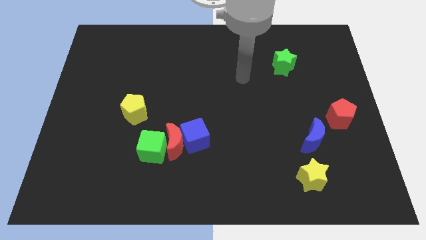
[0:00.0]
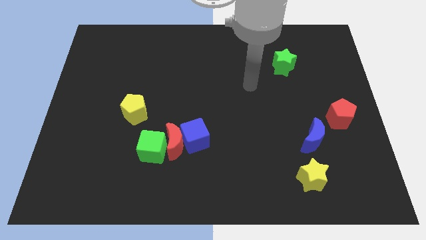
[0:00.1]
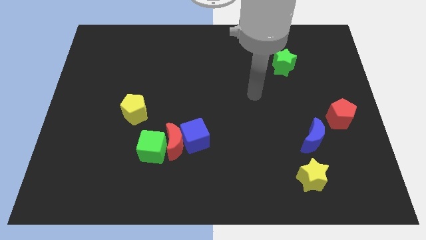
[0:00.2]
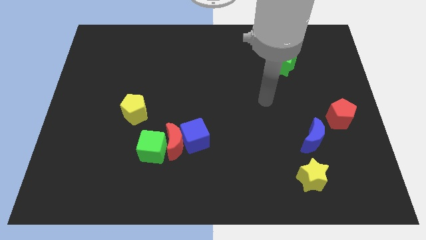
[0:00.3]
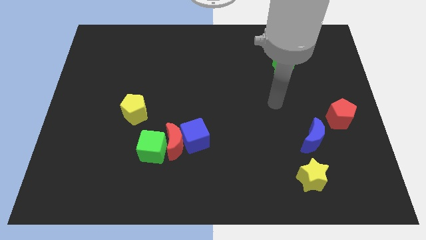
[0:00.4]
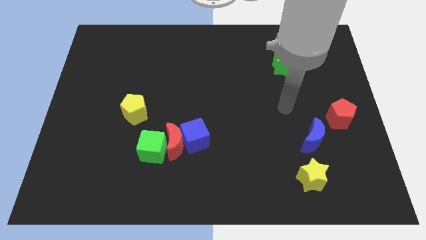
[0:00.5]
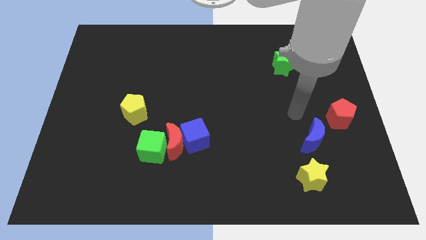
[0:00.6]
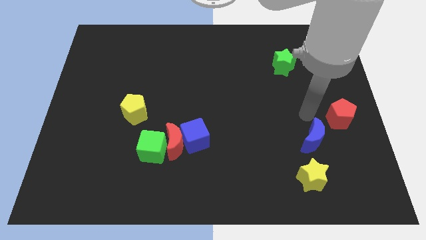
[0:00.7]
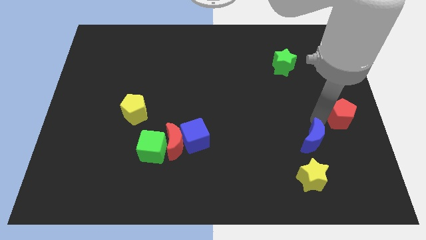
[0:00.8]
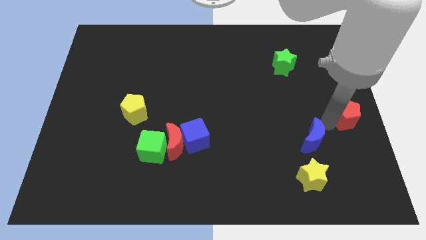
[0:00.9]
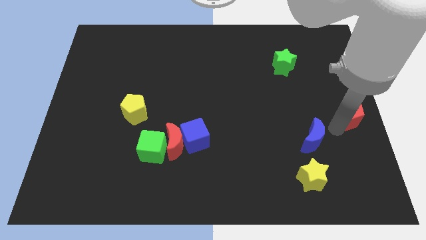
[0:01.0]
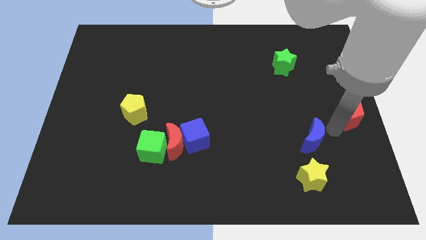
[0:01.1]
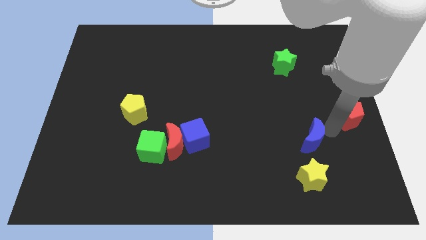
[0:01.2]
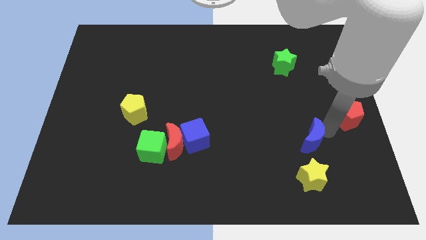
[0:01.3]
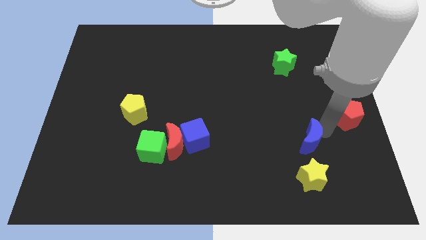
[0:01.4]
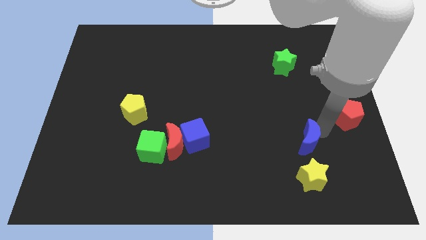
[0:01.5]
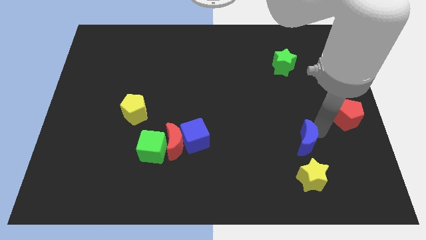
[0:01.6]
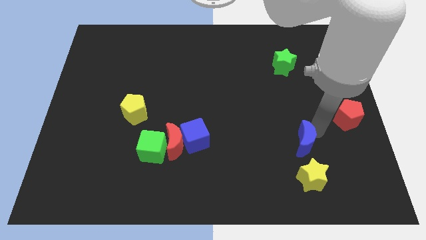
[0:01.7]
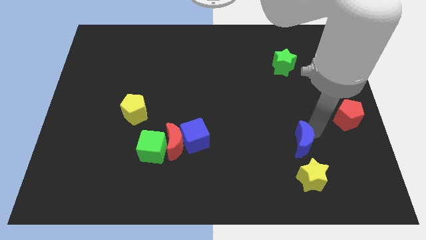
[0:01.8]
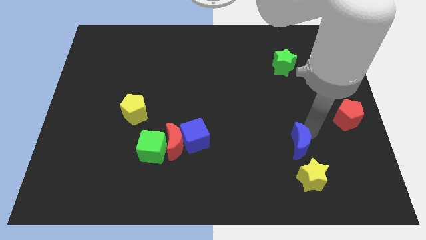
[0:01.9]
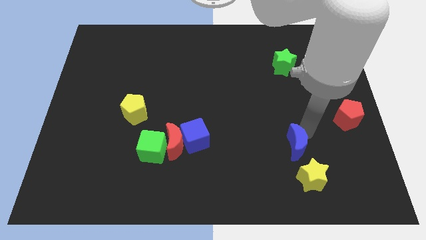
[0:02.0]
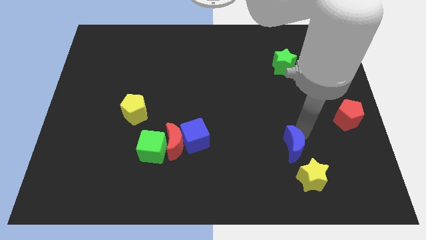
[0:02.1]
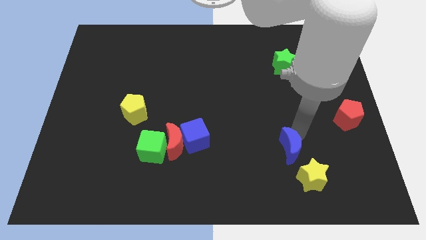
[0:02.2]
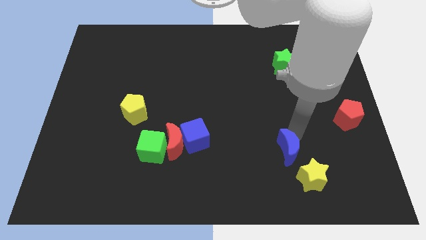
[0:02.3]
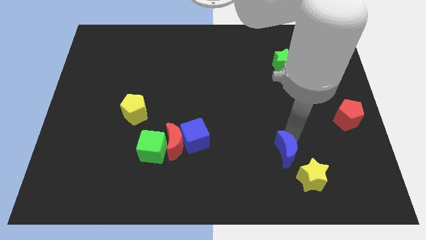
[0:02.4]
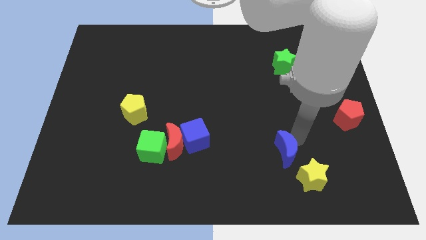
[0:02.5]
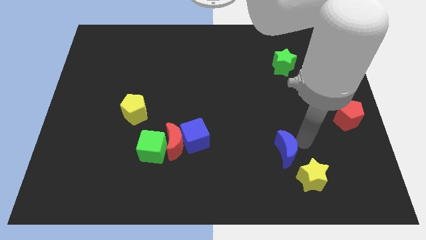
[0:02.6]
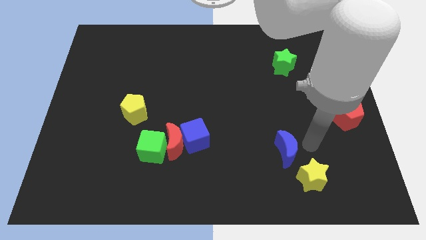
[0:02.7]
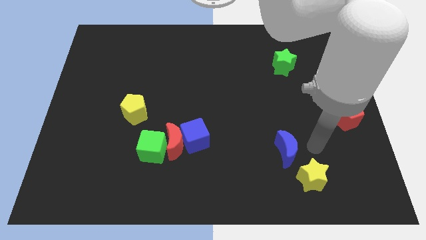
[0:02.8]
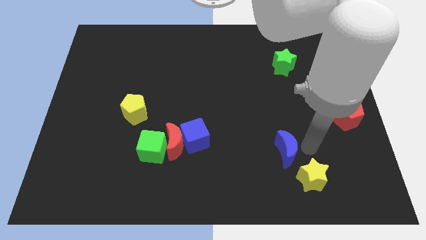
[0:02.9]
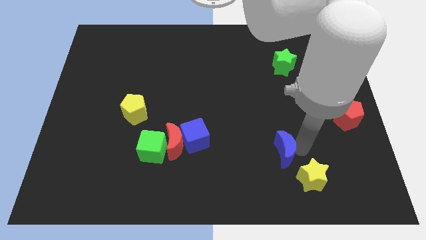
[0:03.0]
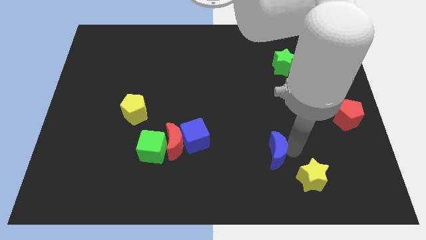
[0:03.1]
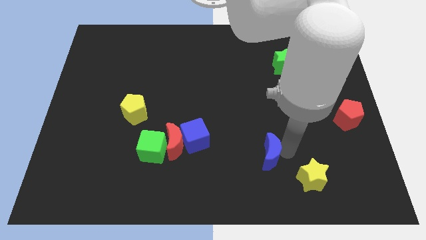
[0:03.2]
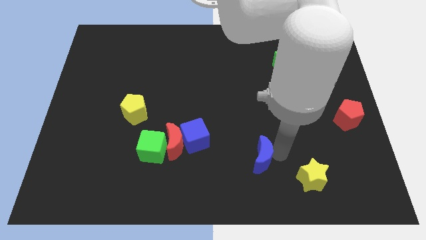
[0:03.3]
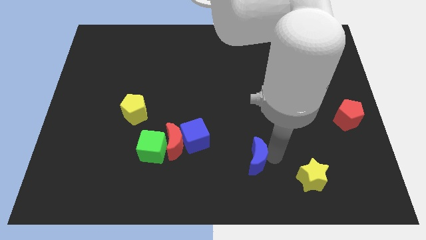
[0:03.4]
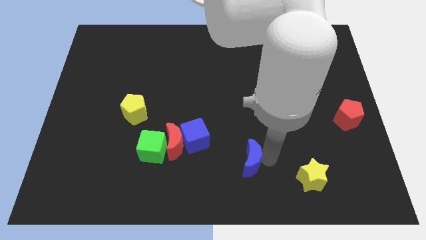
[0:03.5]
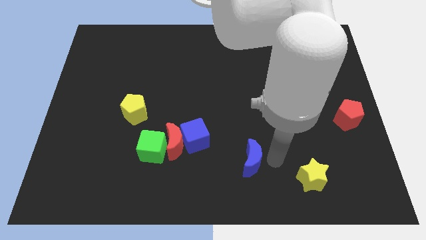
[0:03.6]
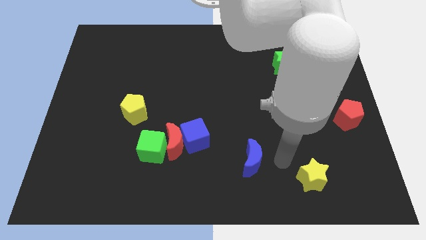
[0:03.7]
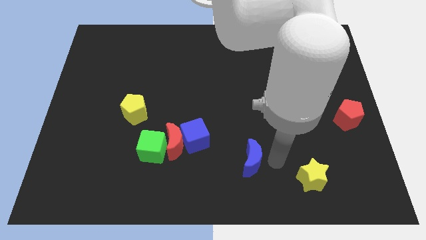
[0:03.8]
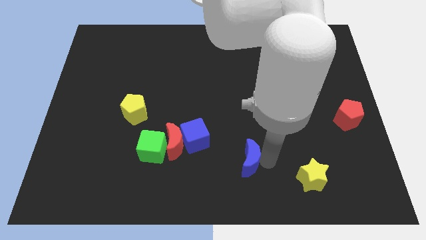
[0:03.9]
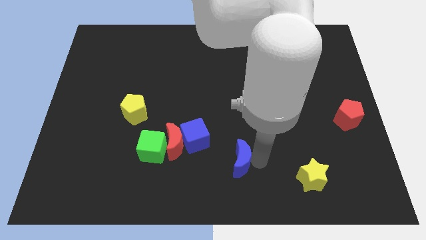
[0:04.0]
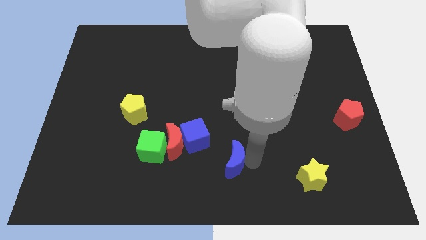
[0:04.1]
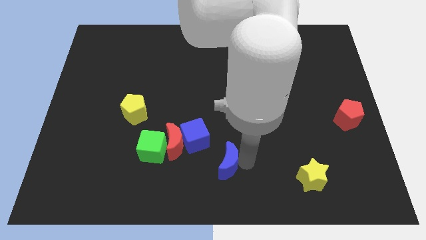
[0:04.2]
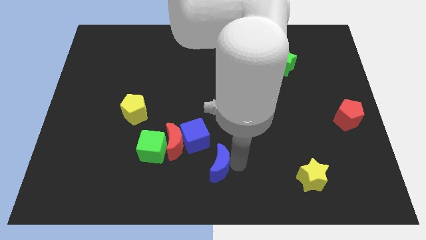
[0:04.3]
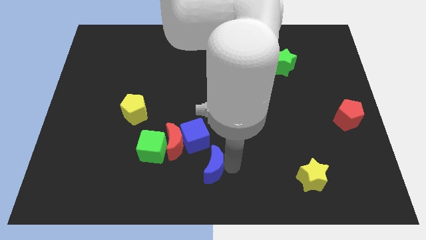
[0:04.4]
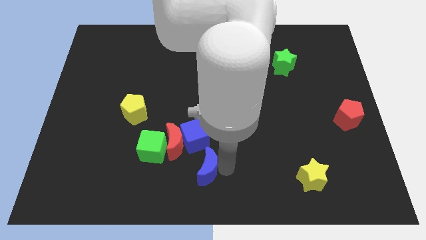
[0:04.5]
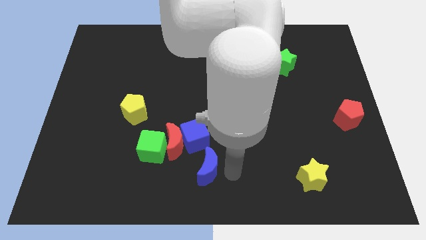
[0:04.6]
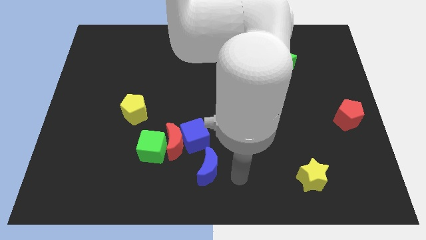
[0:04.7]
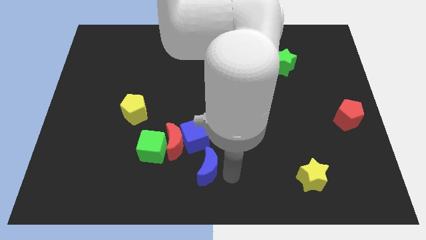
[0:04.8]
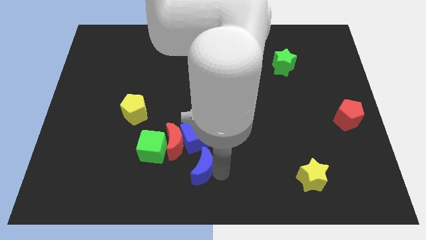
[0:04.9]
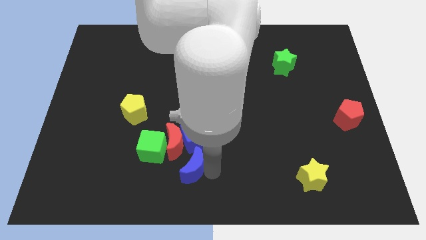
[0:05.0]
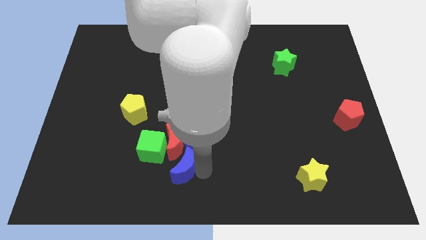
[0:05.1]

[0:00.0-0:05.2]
put the blue moon diagonally down and to the left of the blue cube
